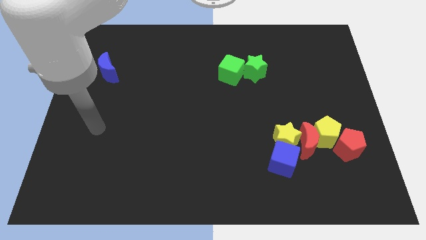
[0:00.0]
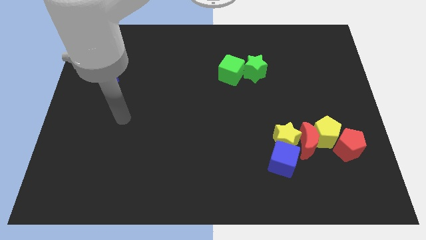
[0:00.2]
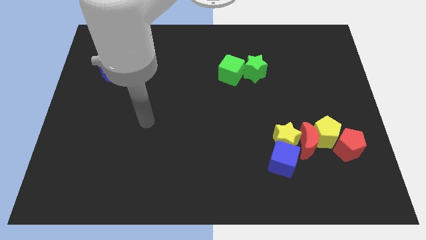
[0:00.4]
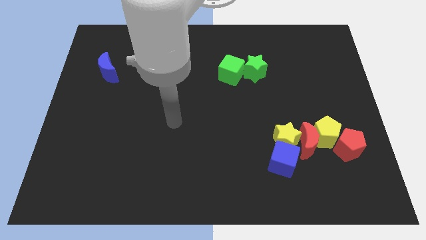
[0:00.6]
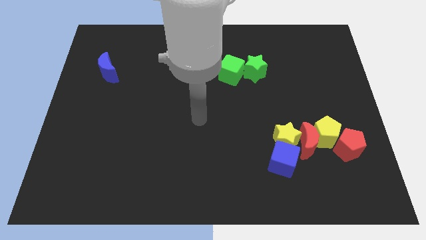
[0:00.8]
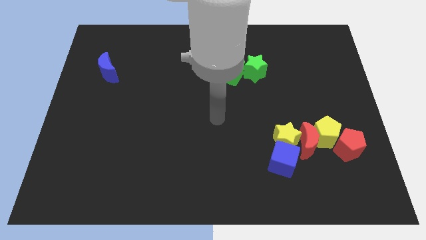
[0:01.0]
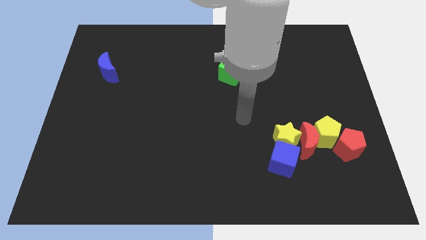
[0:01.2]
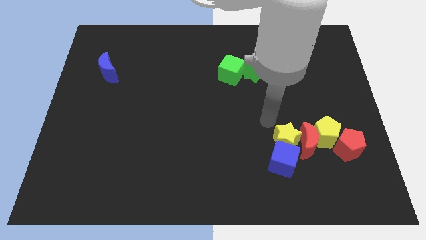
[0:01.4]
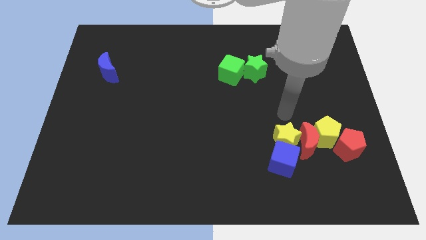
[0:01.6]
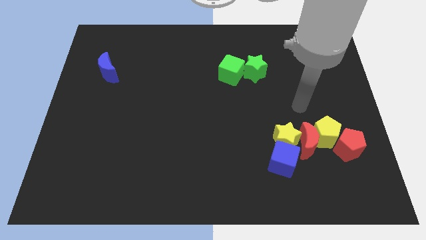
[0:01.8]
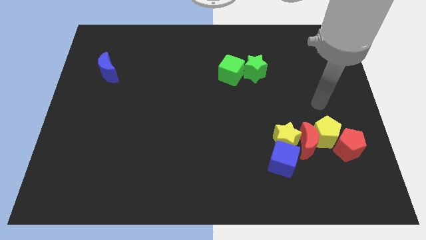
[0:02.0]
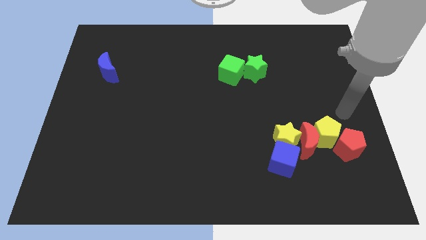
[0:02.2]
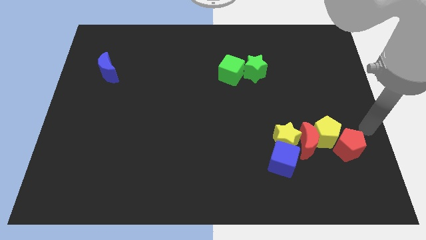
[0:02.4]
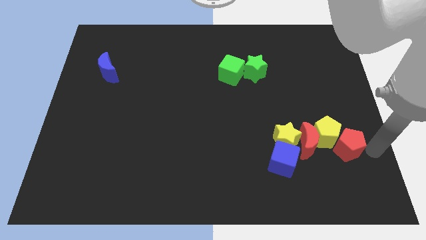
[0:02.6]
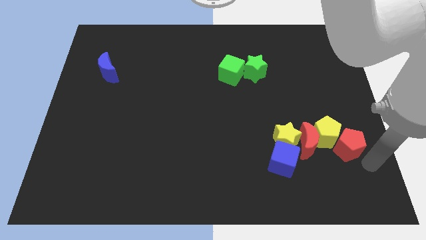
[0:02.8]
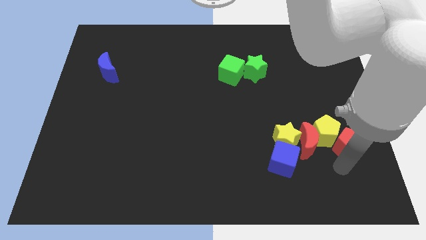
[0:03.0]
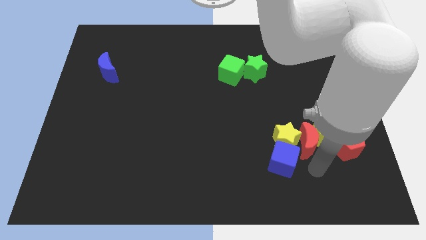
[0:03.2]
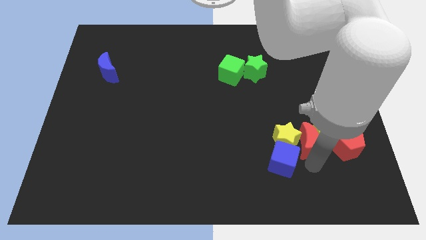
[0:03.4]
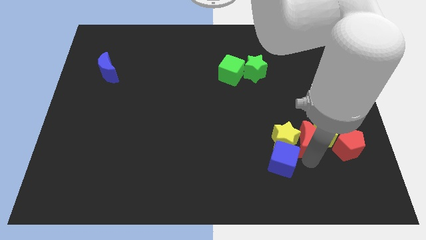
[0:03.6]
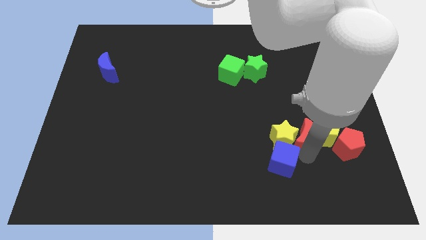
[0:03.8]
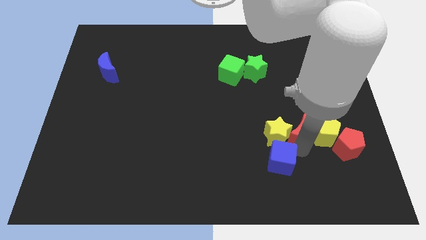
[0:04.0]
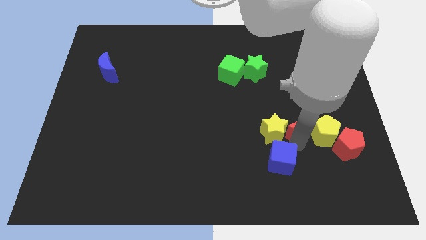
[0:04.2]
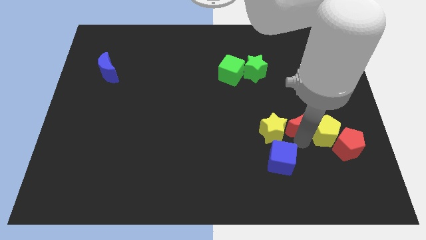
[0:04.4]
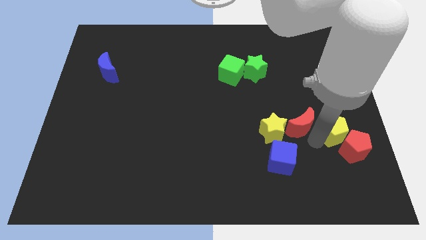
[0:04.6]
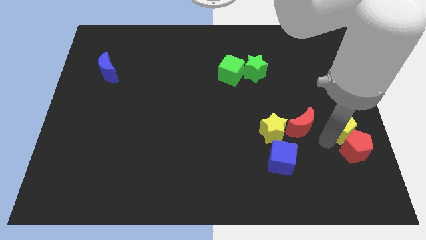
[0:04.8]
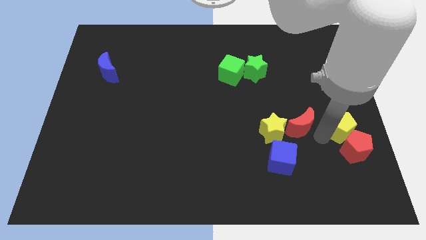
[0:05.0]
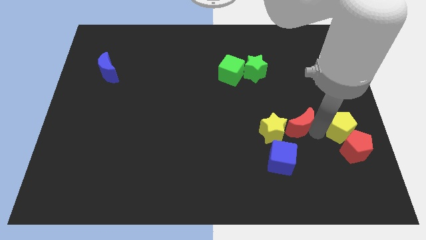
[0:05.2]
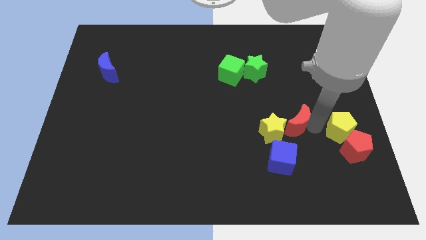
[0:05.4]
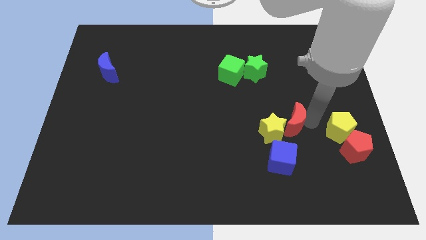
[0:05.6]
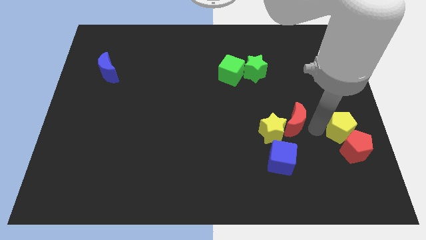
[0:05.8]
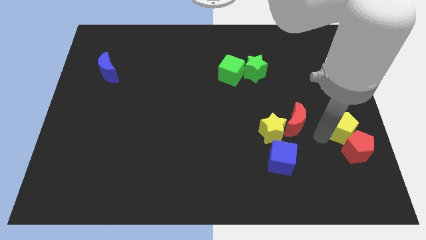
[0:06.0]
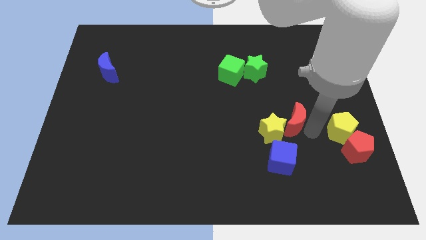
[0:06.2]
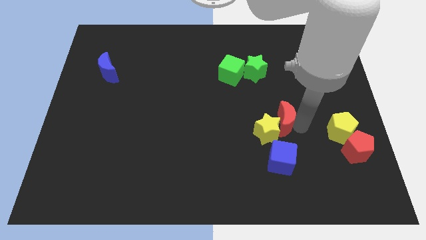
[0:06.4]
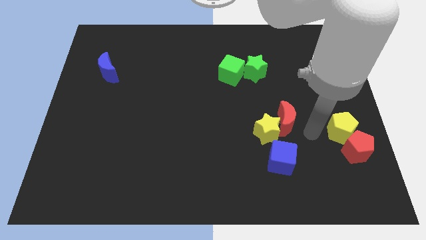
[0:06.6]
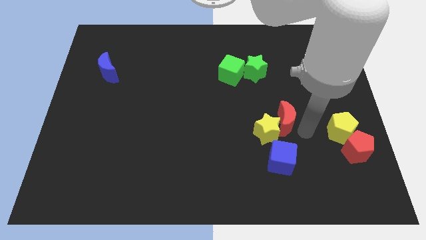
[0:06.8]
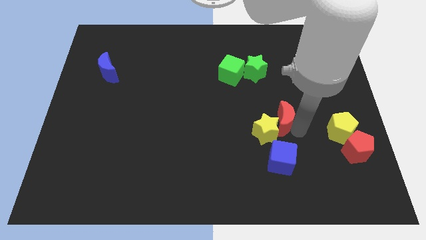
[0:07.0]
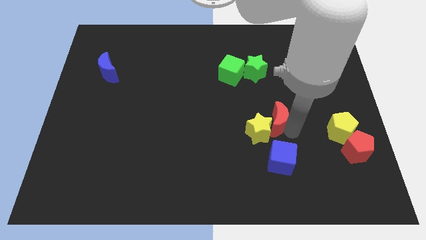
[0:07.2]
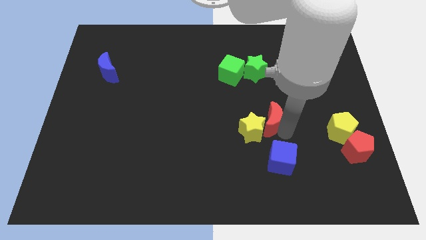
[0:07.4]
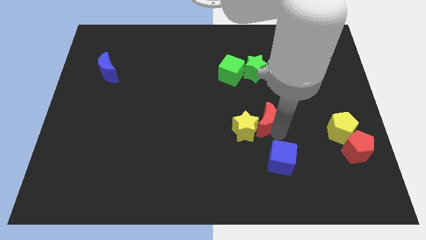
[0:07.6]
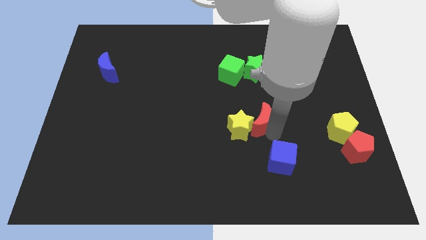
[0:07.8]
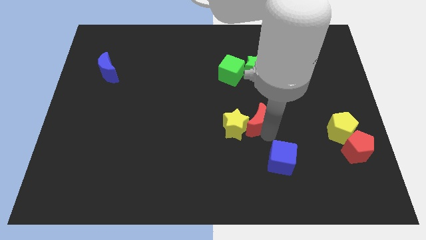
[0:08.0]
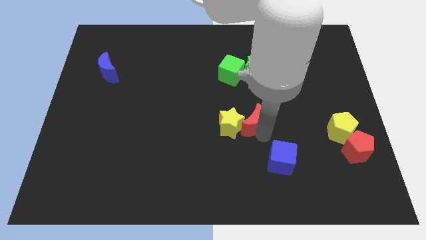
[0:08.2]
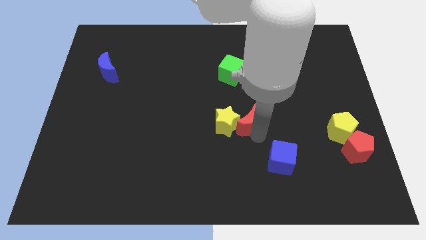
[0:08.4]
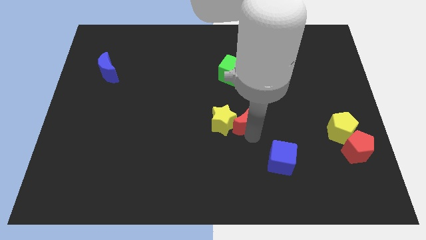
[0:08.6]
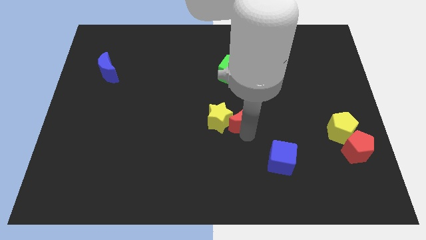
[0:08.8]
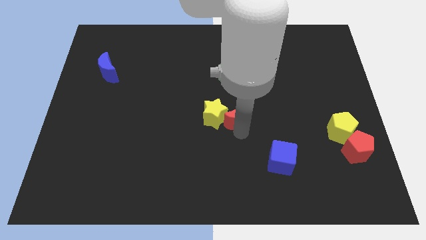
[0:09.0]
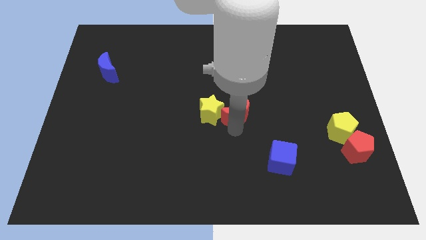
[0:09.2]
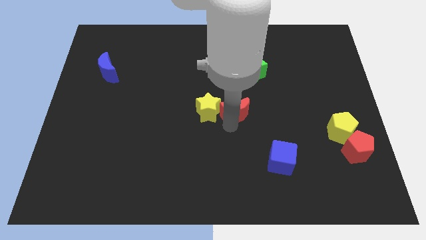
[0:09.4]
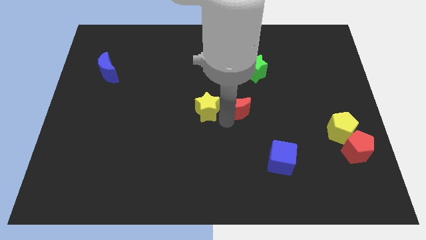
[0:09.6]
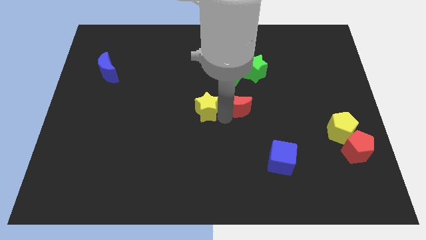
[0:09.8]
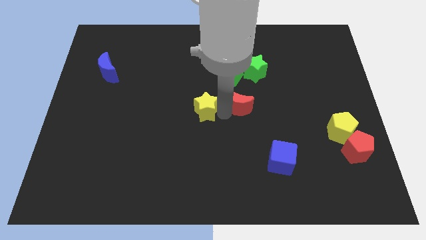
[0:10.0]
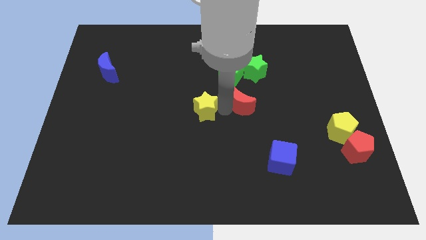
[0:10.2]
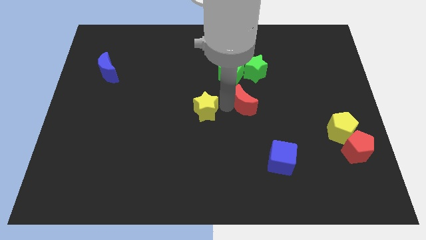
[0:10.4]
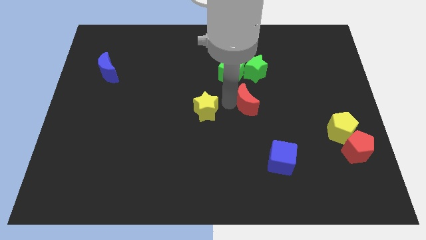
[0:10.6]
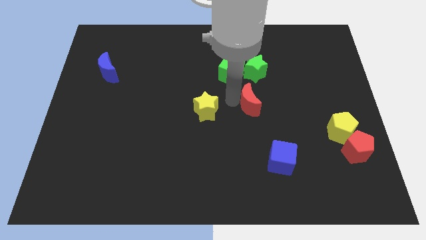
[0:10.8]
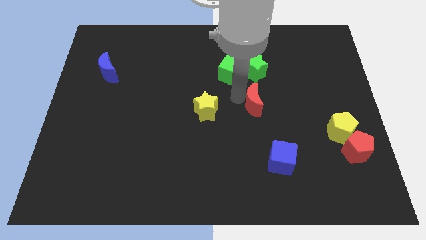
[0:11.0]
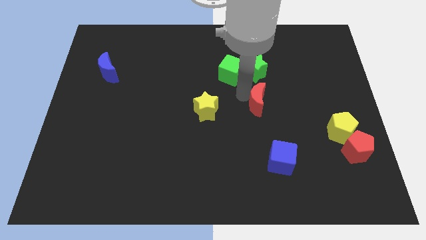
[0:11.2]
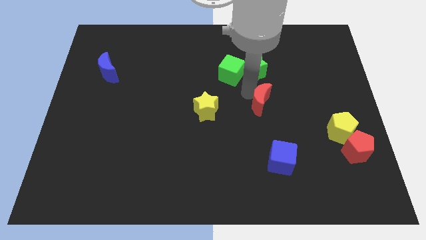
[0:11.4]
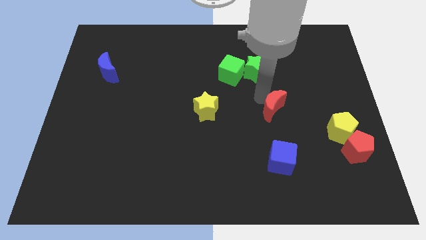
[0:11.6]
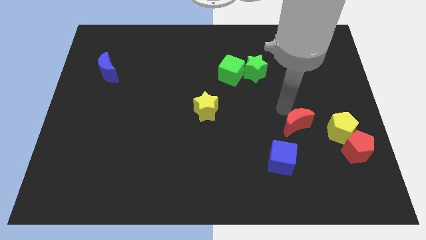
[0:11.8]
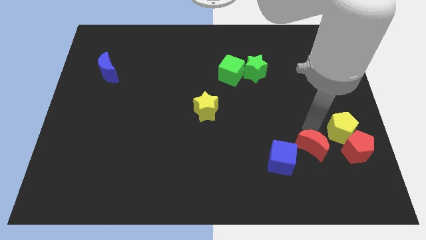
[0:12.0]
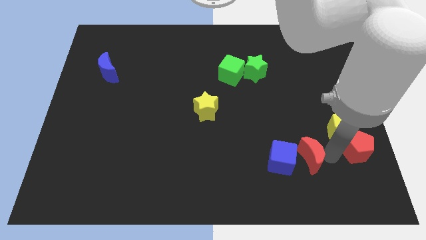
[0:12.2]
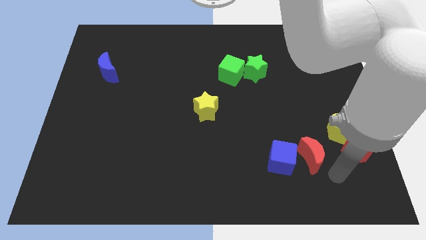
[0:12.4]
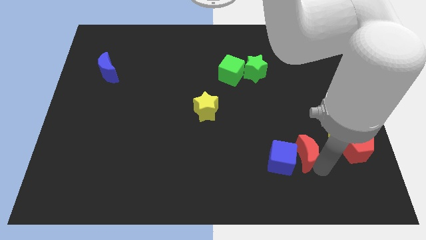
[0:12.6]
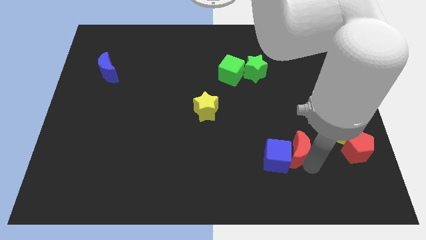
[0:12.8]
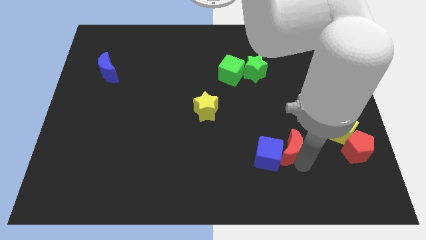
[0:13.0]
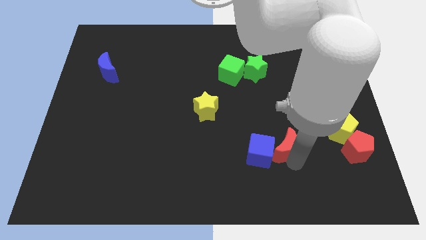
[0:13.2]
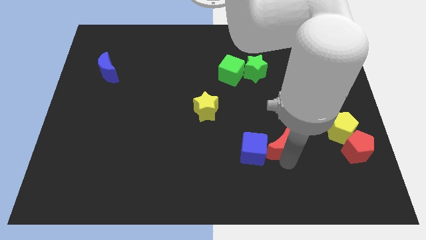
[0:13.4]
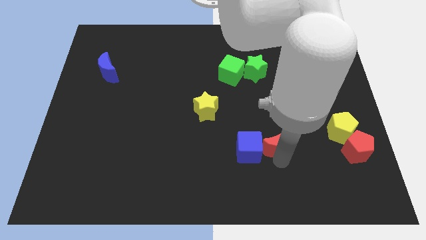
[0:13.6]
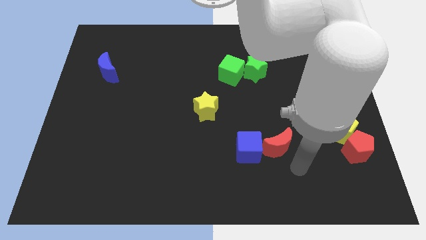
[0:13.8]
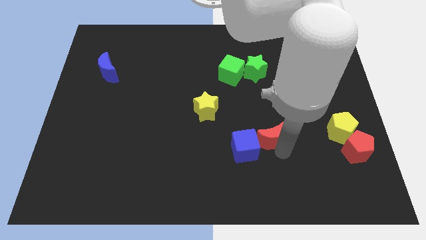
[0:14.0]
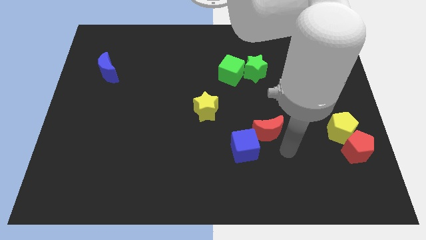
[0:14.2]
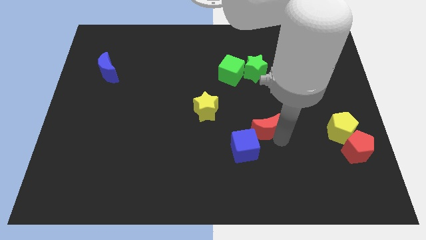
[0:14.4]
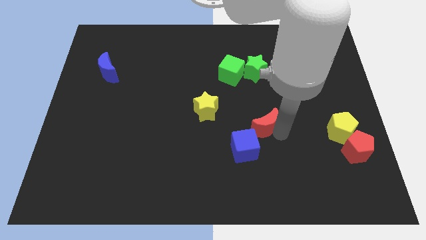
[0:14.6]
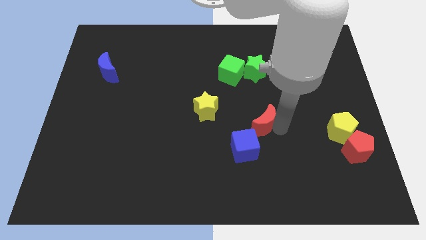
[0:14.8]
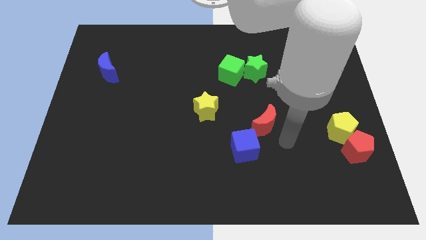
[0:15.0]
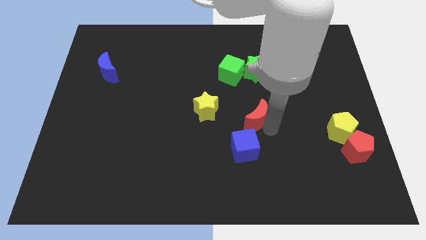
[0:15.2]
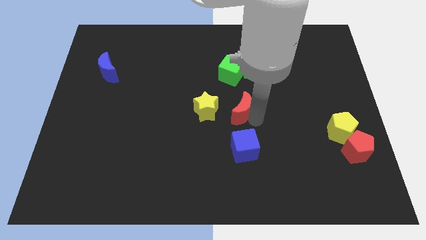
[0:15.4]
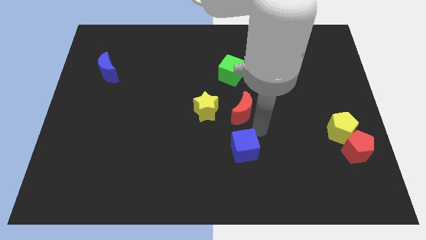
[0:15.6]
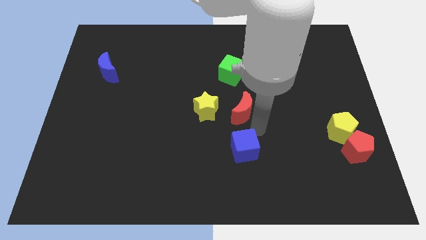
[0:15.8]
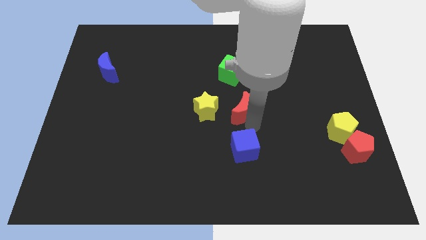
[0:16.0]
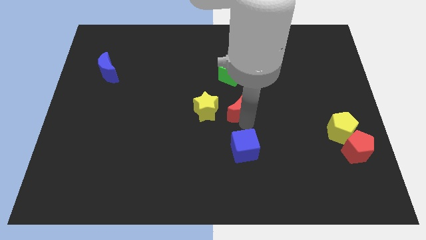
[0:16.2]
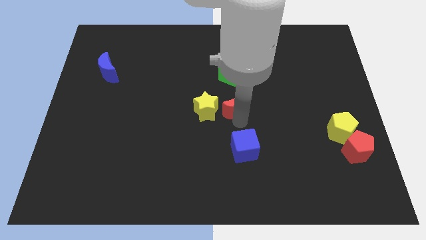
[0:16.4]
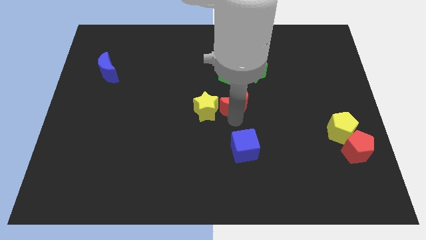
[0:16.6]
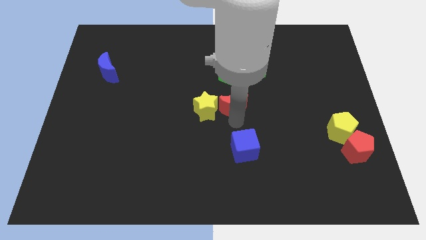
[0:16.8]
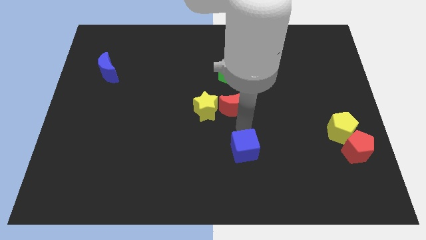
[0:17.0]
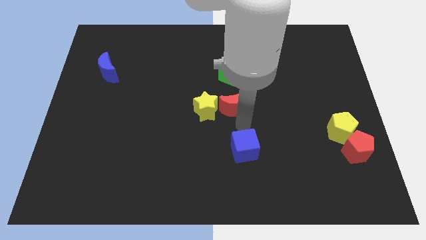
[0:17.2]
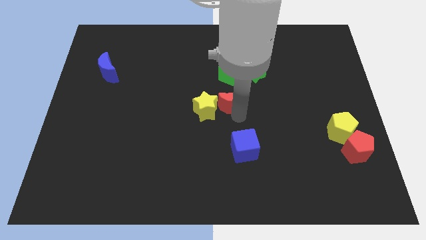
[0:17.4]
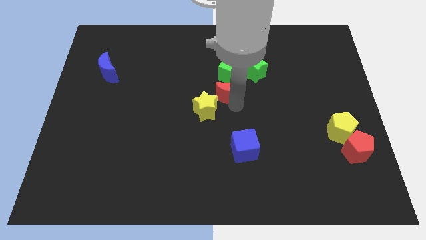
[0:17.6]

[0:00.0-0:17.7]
slide the red moon to the bottom left of the green cube
